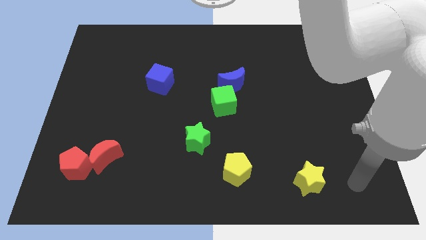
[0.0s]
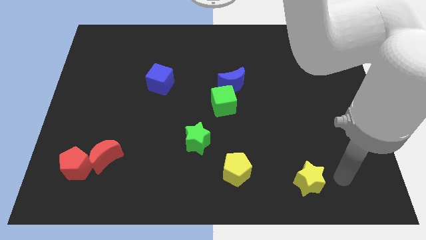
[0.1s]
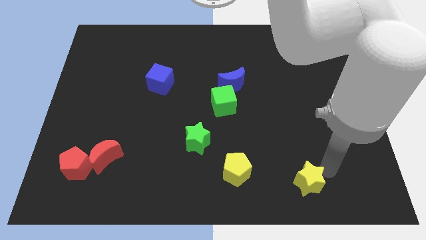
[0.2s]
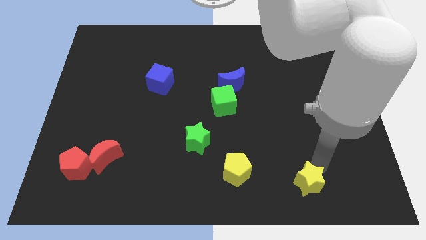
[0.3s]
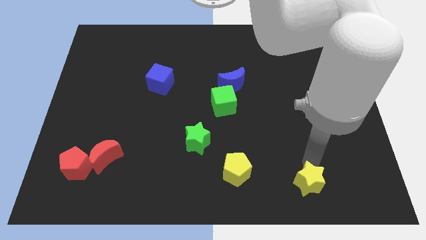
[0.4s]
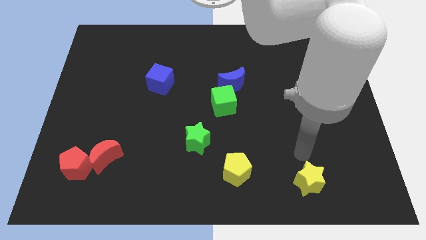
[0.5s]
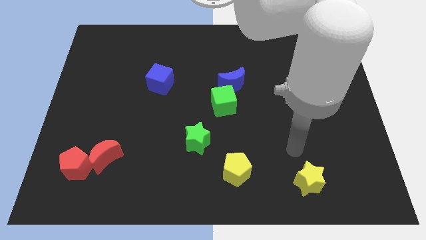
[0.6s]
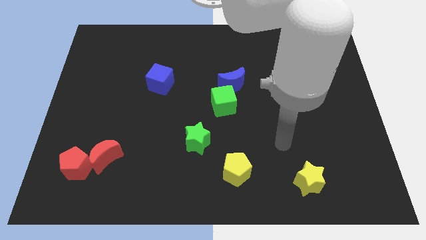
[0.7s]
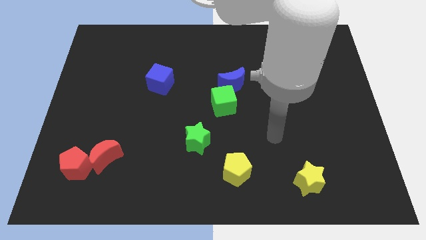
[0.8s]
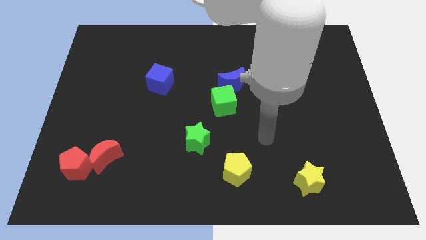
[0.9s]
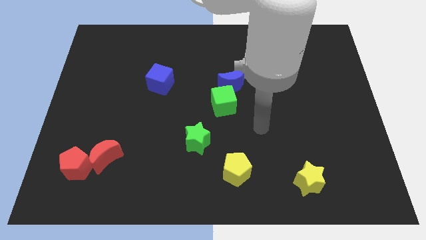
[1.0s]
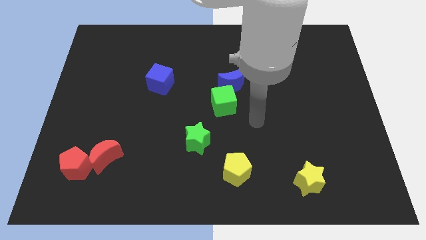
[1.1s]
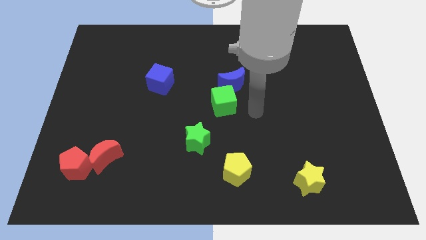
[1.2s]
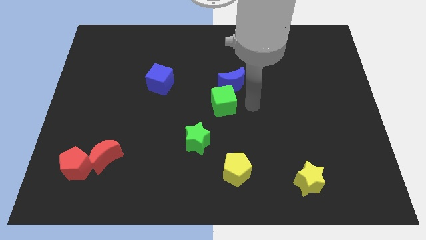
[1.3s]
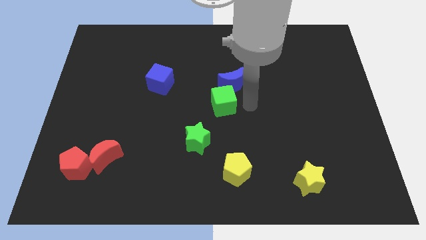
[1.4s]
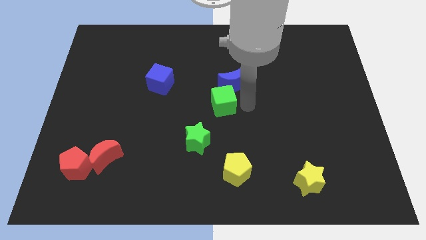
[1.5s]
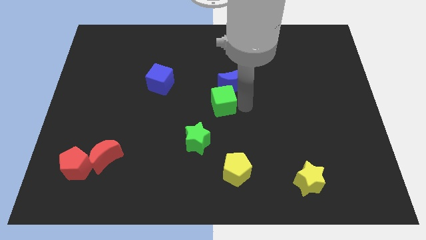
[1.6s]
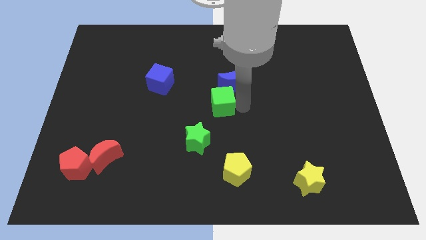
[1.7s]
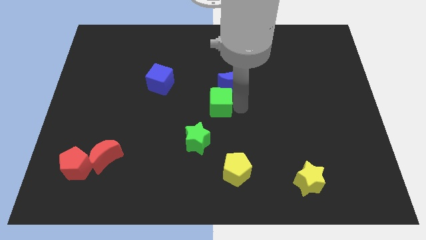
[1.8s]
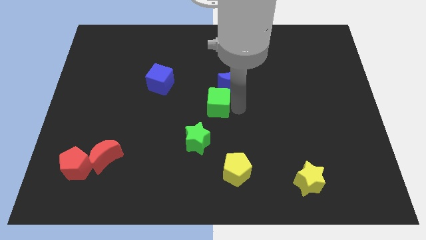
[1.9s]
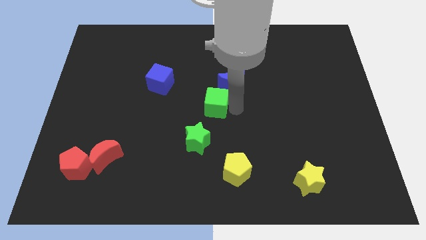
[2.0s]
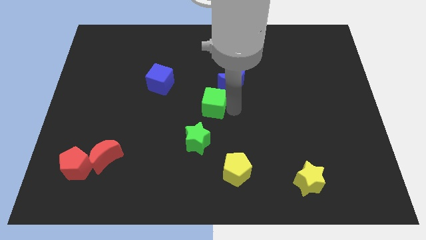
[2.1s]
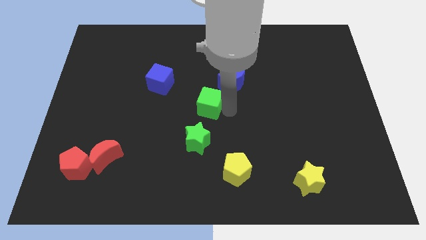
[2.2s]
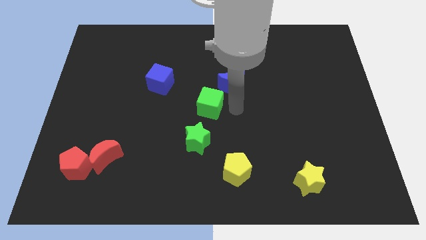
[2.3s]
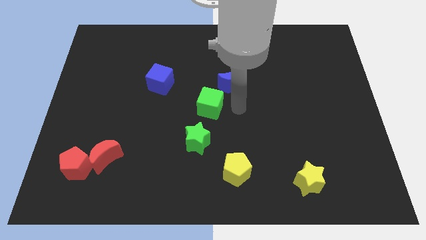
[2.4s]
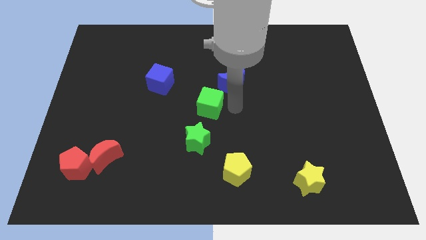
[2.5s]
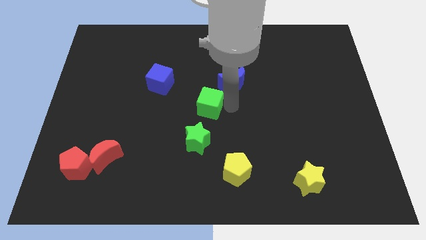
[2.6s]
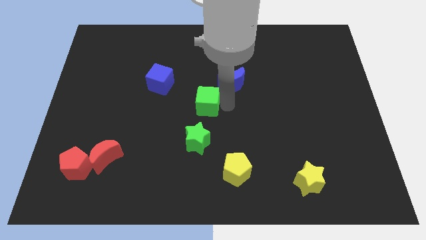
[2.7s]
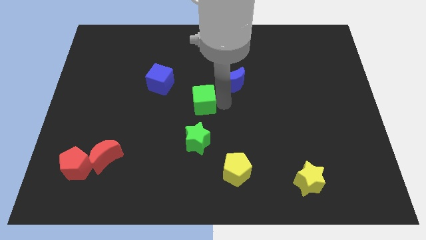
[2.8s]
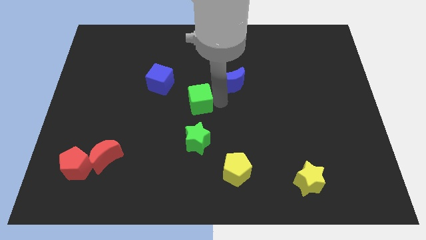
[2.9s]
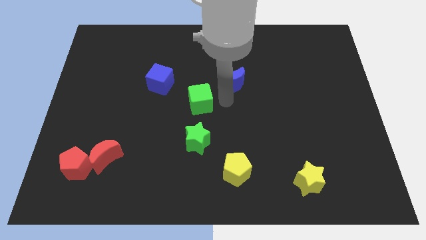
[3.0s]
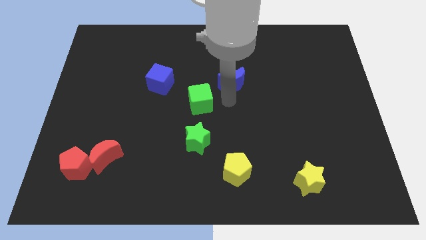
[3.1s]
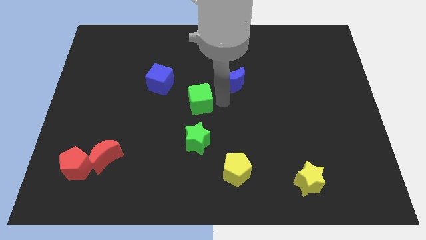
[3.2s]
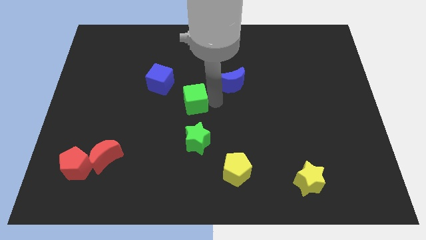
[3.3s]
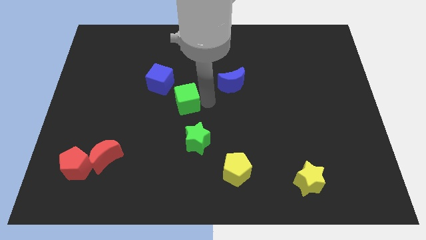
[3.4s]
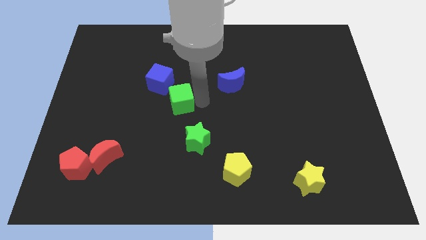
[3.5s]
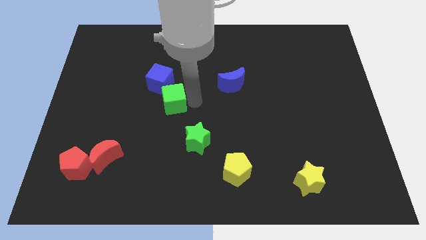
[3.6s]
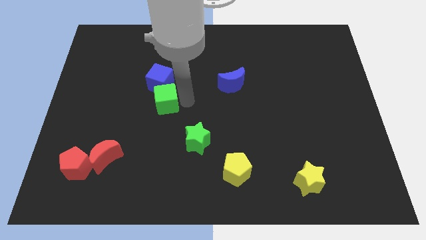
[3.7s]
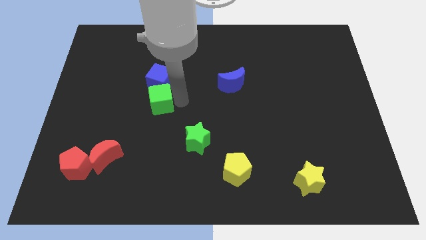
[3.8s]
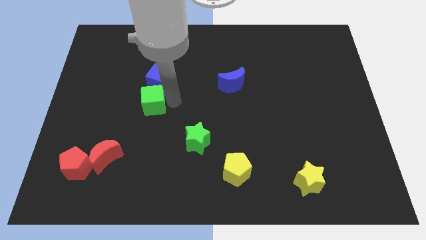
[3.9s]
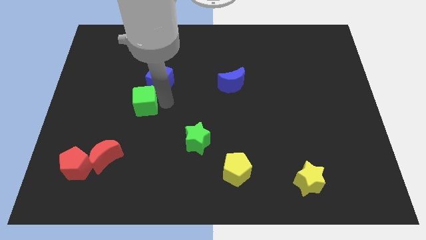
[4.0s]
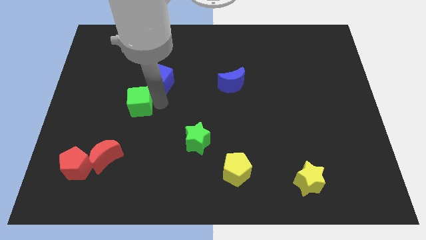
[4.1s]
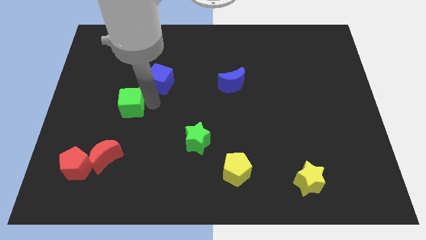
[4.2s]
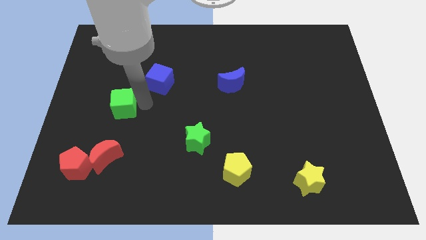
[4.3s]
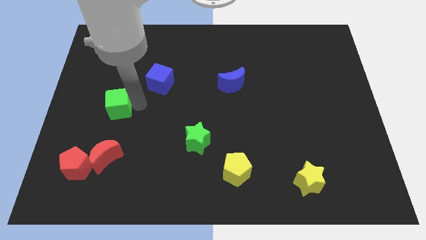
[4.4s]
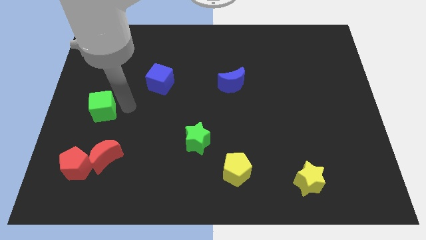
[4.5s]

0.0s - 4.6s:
push the green cube to the center left

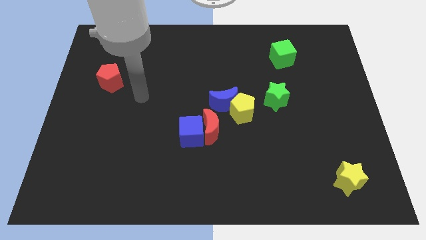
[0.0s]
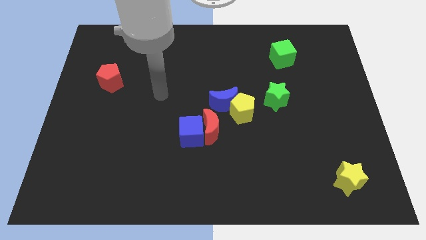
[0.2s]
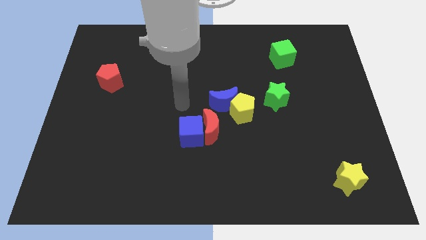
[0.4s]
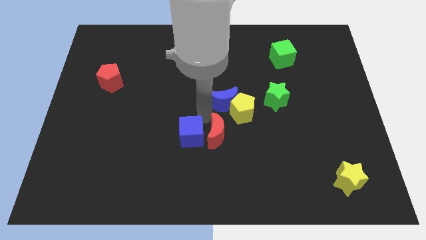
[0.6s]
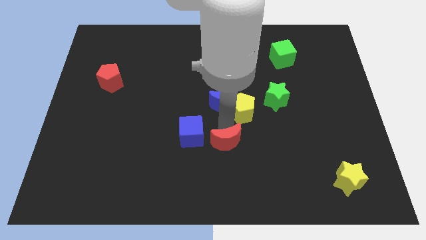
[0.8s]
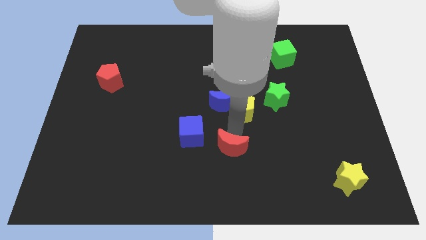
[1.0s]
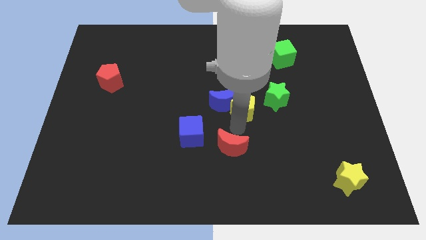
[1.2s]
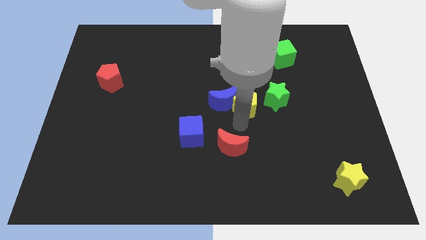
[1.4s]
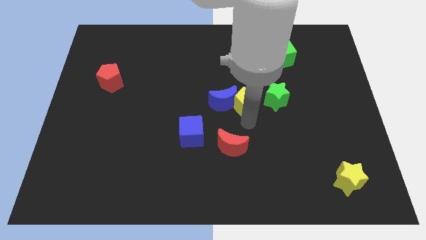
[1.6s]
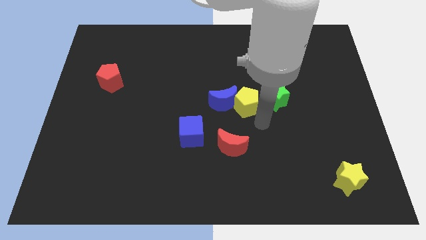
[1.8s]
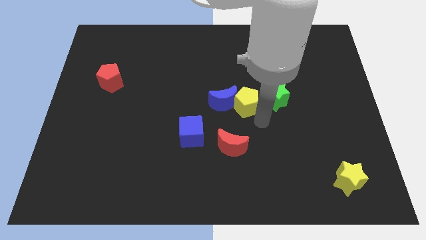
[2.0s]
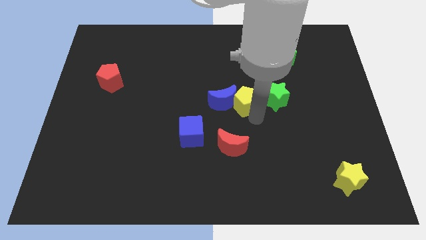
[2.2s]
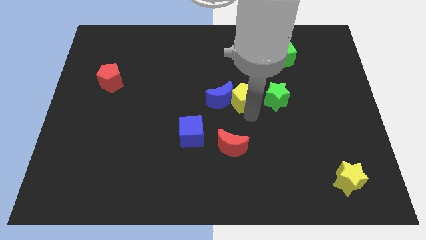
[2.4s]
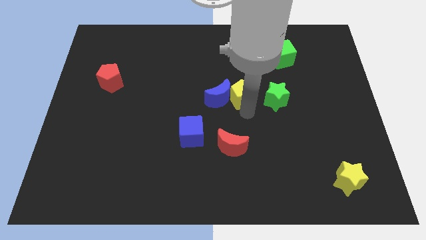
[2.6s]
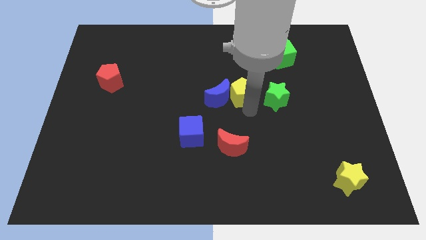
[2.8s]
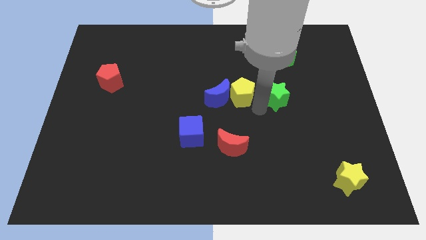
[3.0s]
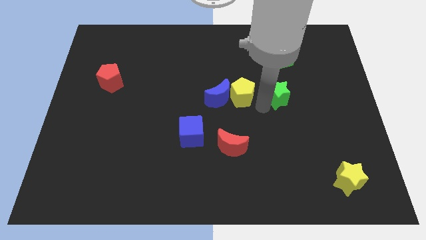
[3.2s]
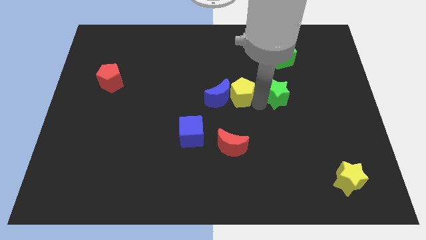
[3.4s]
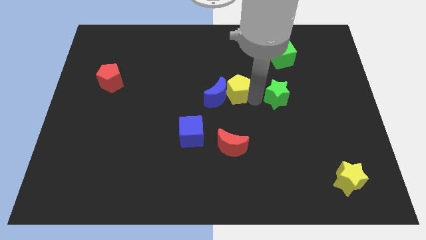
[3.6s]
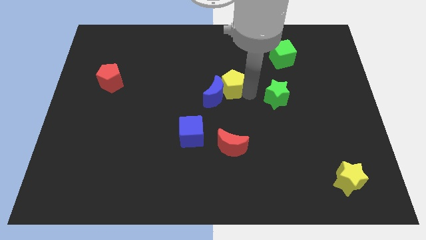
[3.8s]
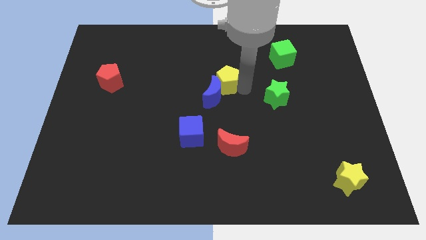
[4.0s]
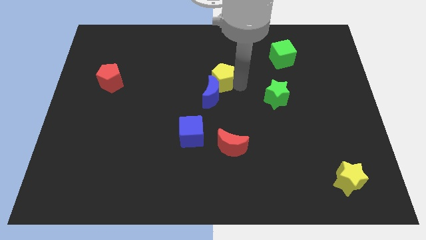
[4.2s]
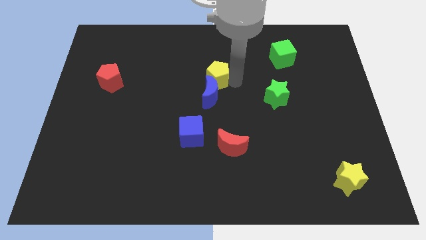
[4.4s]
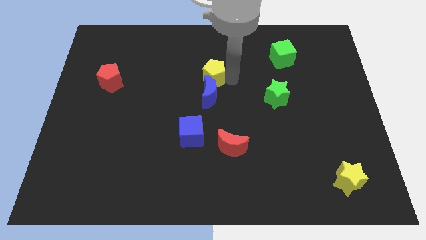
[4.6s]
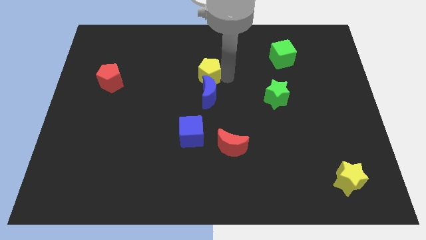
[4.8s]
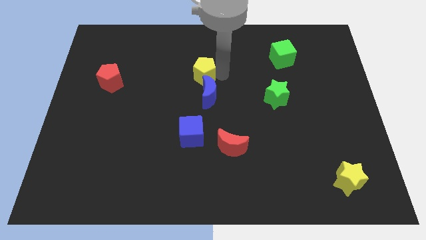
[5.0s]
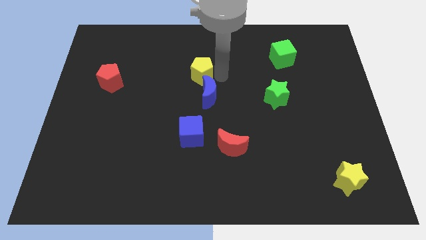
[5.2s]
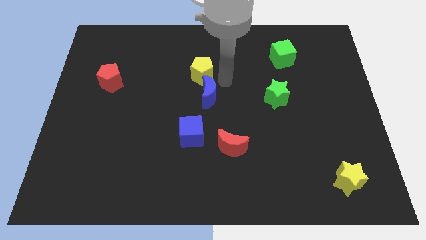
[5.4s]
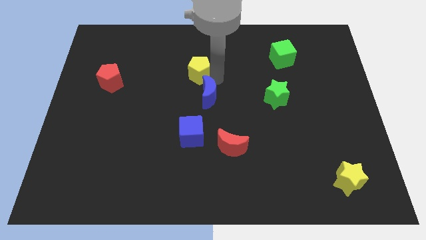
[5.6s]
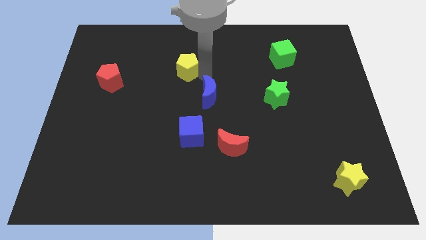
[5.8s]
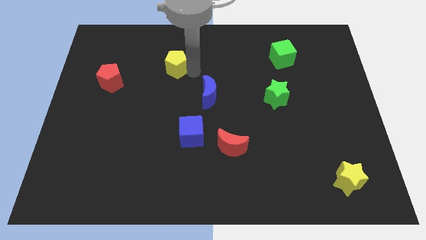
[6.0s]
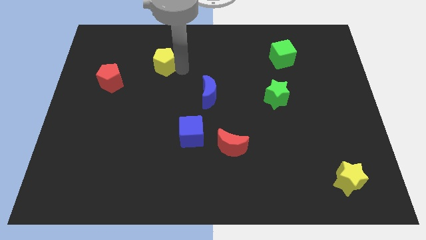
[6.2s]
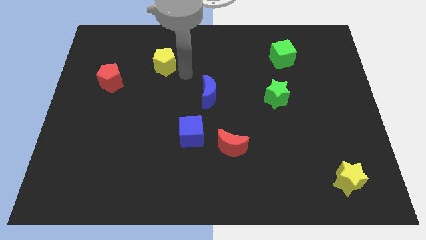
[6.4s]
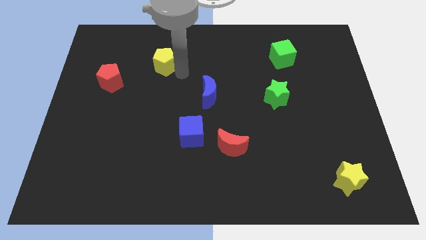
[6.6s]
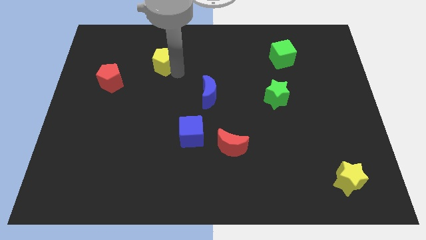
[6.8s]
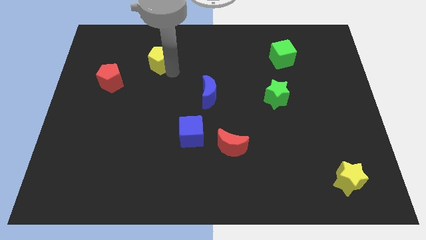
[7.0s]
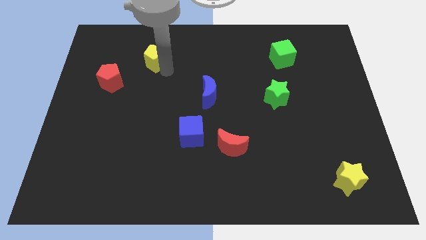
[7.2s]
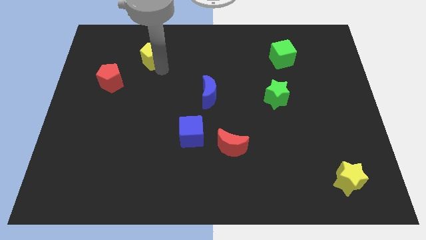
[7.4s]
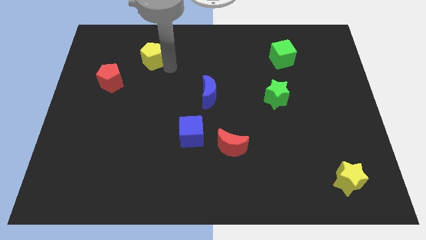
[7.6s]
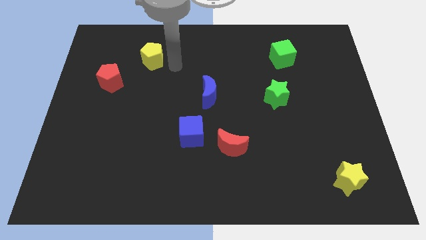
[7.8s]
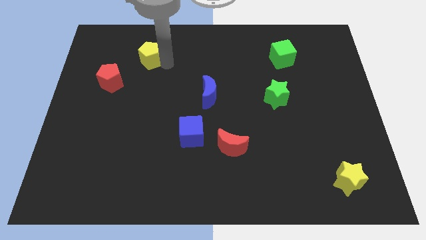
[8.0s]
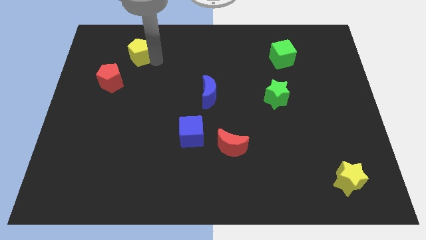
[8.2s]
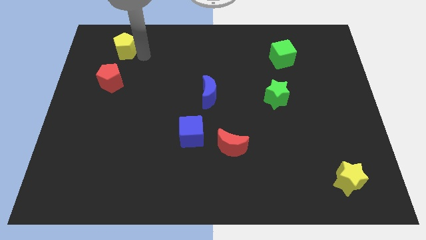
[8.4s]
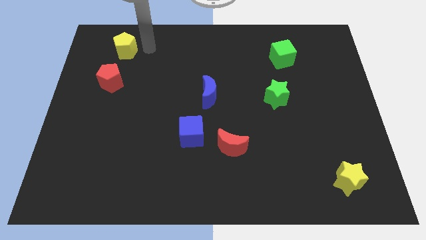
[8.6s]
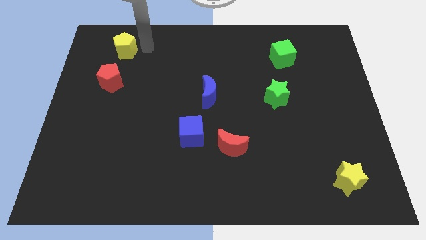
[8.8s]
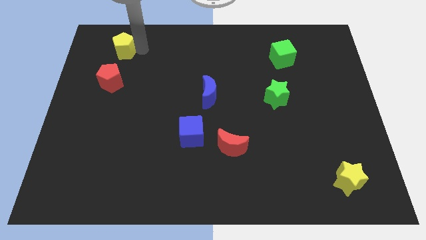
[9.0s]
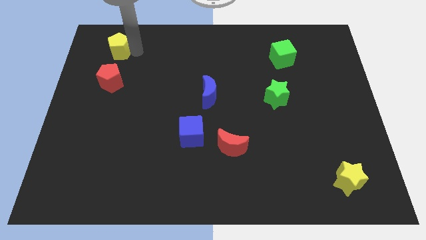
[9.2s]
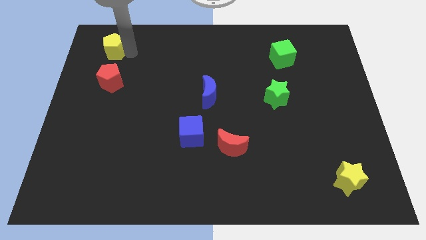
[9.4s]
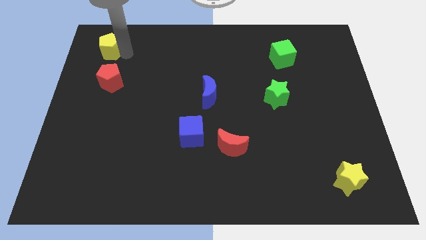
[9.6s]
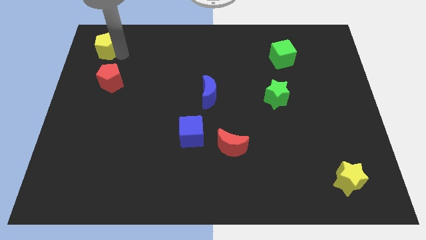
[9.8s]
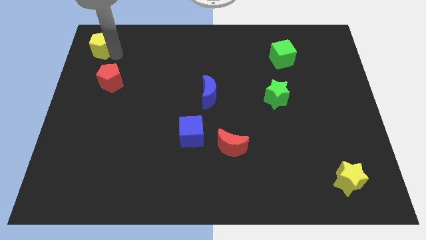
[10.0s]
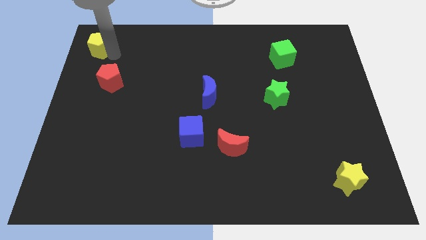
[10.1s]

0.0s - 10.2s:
move the yellow pentagon to the upper left corner
